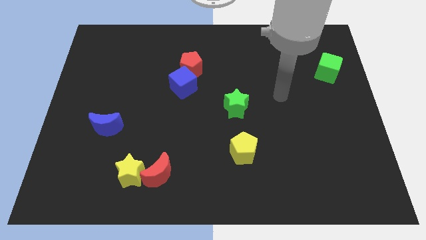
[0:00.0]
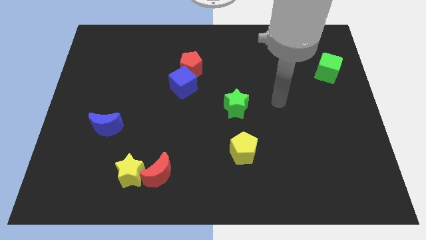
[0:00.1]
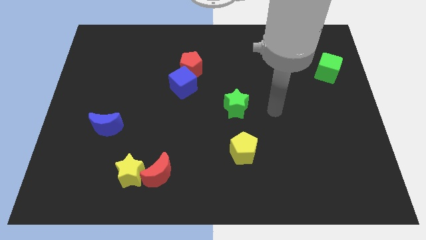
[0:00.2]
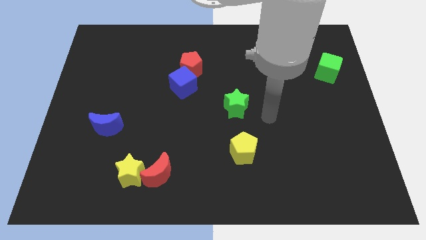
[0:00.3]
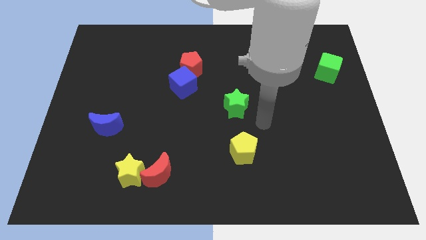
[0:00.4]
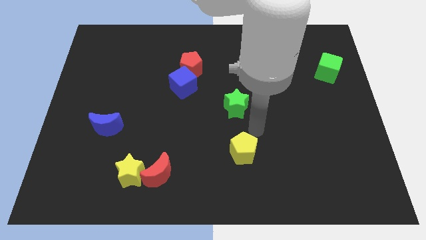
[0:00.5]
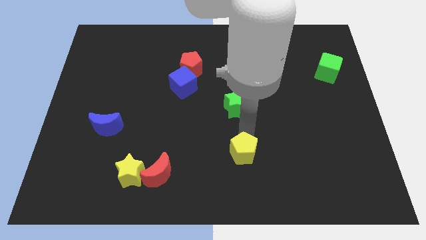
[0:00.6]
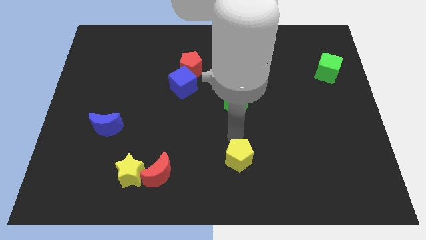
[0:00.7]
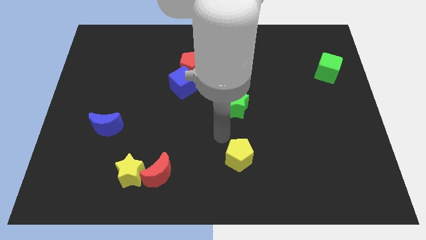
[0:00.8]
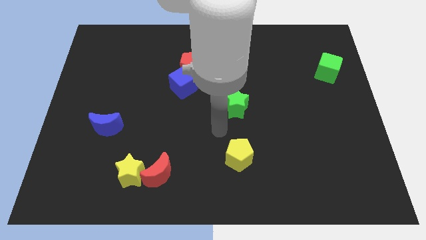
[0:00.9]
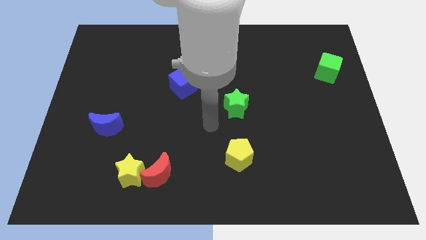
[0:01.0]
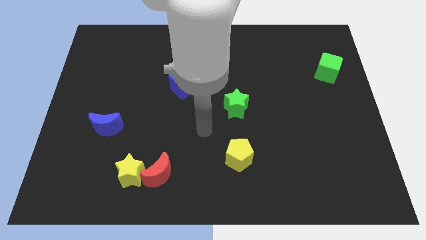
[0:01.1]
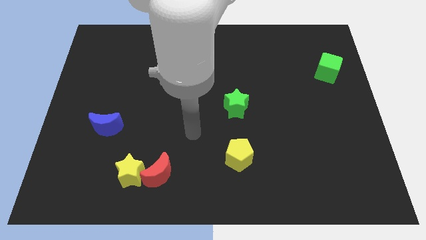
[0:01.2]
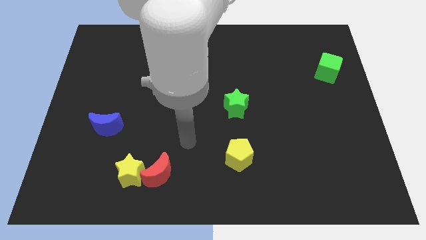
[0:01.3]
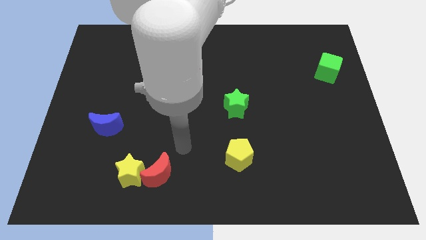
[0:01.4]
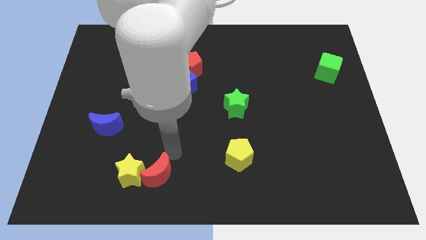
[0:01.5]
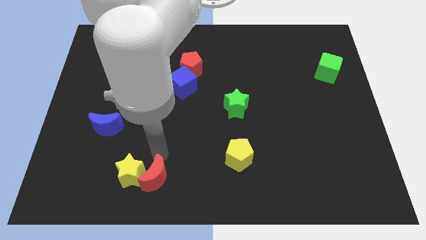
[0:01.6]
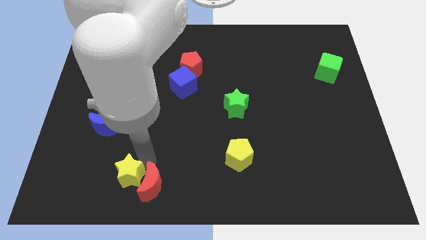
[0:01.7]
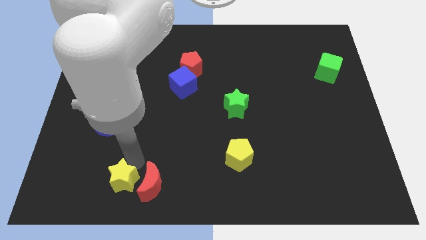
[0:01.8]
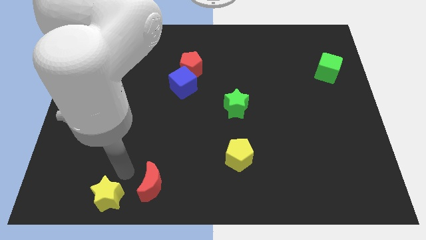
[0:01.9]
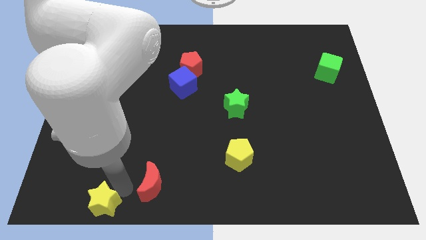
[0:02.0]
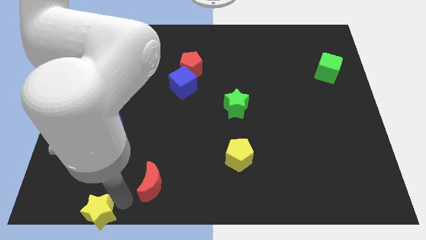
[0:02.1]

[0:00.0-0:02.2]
pull the red moon apart from the yellow star

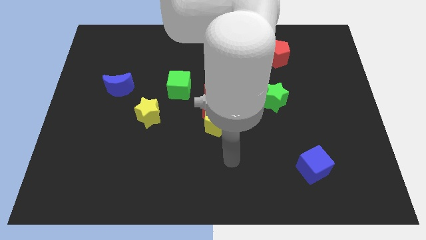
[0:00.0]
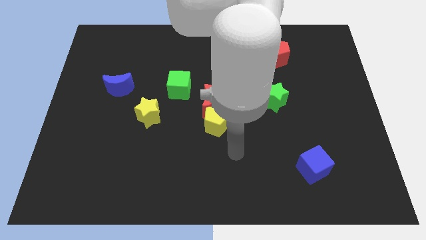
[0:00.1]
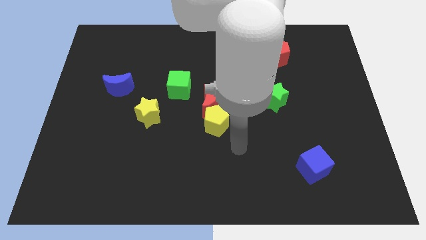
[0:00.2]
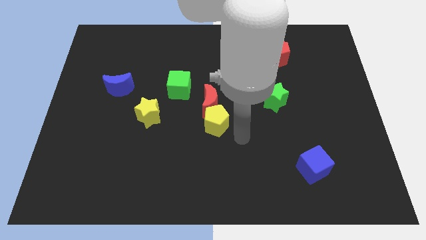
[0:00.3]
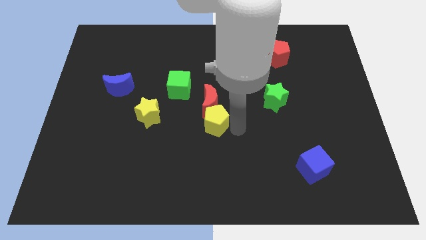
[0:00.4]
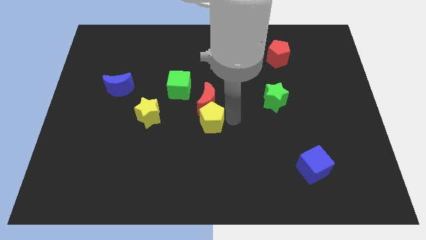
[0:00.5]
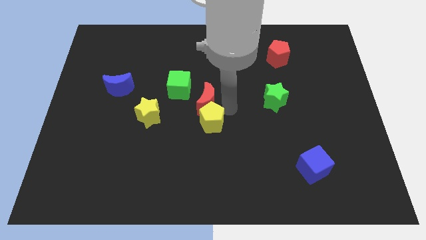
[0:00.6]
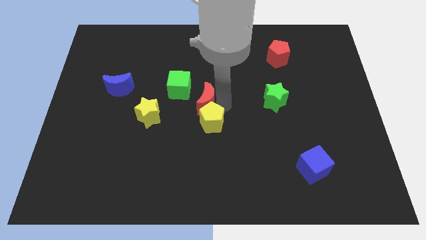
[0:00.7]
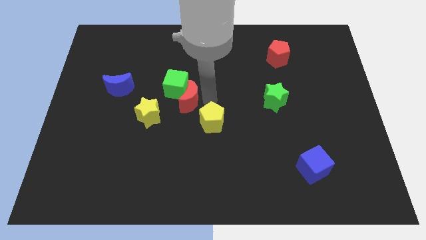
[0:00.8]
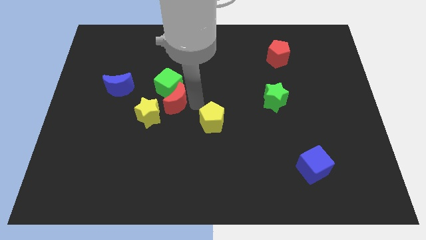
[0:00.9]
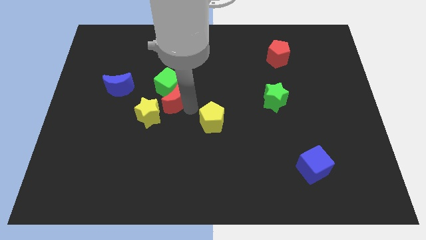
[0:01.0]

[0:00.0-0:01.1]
pull the yellow pentagon apart from the red moon

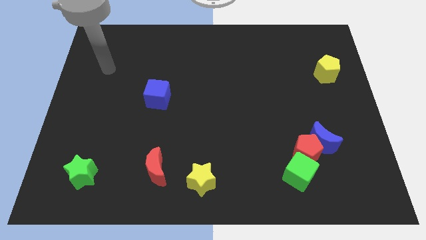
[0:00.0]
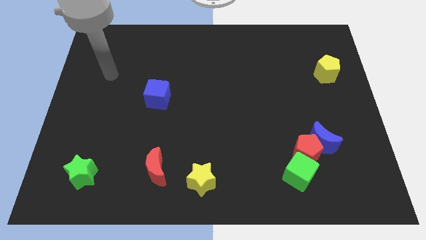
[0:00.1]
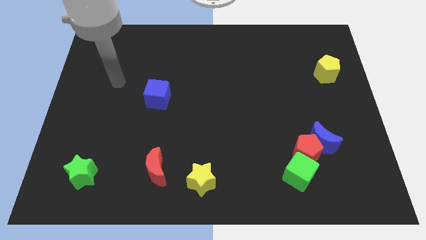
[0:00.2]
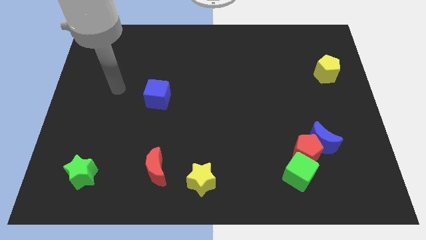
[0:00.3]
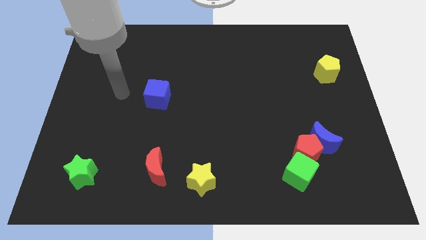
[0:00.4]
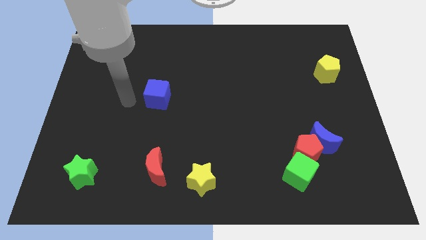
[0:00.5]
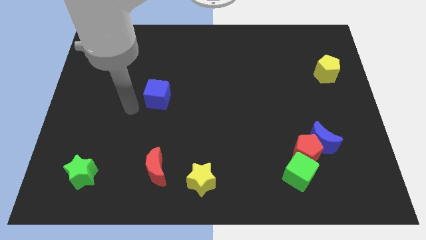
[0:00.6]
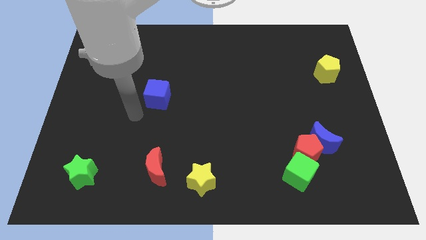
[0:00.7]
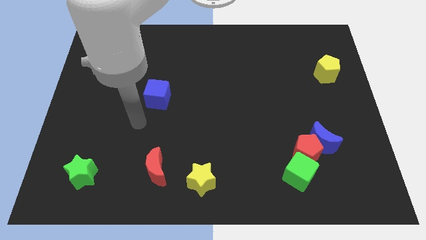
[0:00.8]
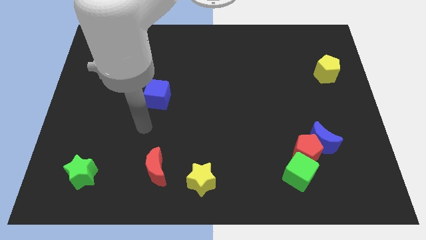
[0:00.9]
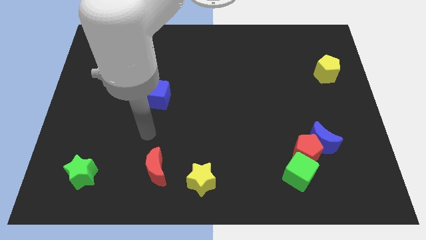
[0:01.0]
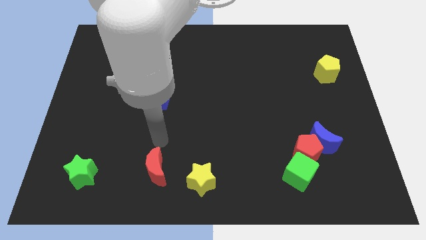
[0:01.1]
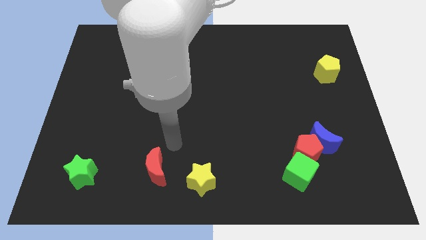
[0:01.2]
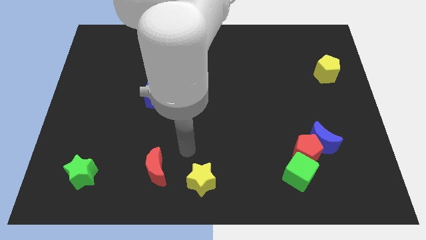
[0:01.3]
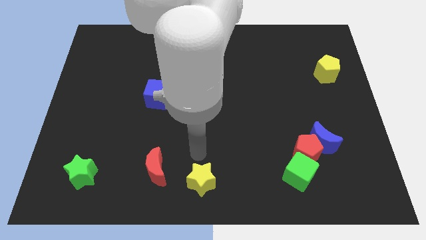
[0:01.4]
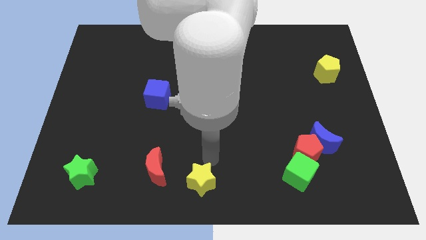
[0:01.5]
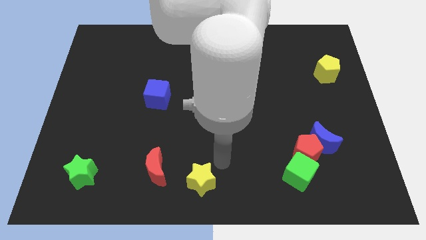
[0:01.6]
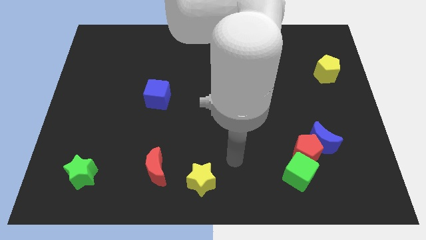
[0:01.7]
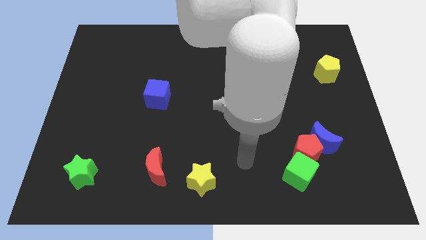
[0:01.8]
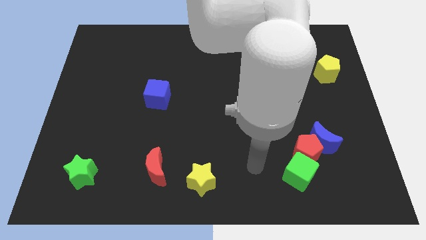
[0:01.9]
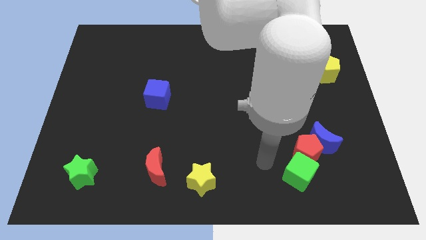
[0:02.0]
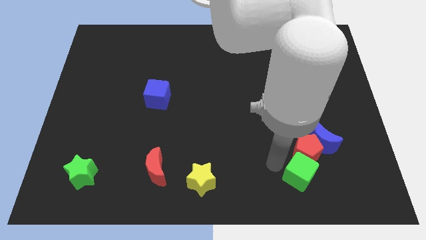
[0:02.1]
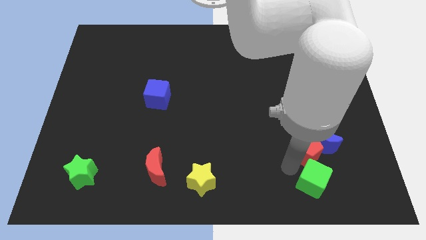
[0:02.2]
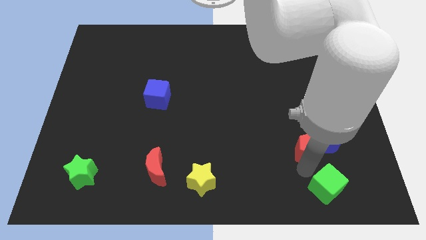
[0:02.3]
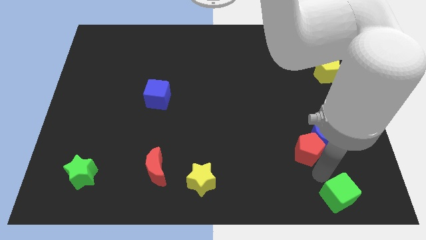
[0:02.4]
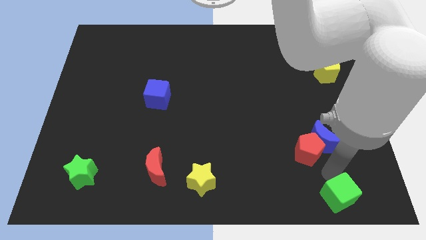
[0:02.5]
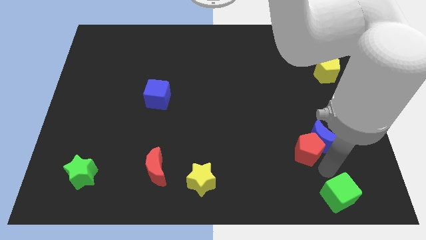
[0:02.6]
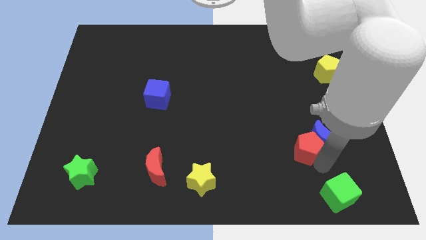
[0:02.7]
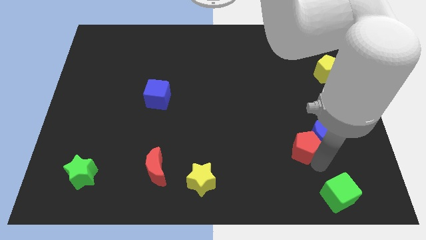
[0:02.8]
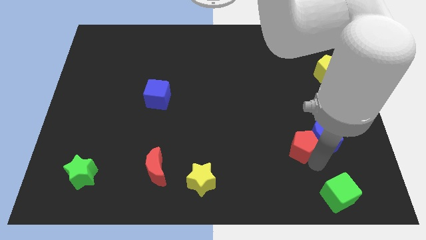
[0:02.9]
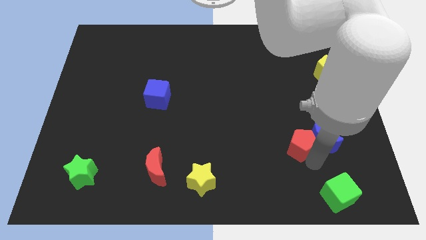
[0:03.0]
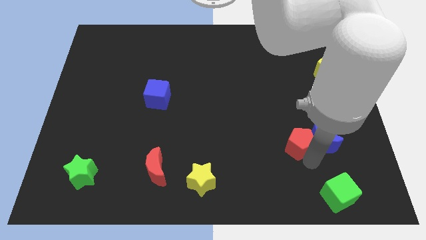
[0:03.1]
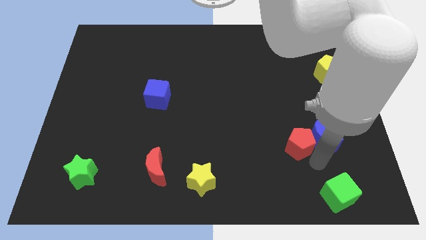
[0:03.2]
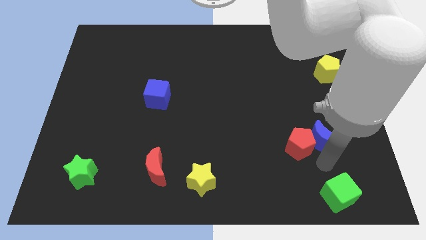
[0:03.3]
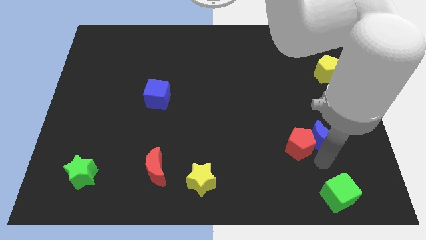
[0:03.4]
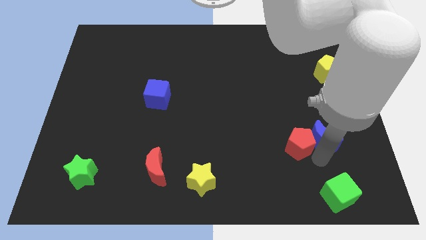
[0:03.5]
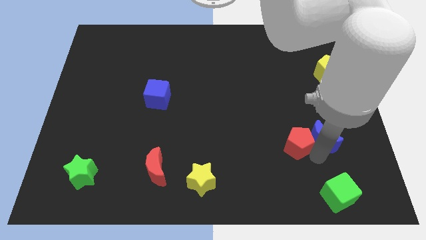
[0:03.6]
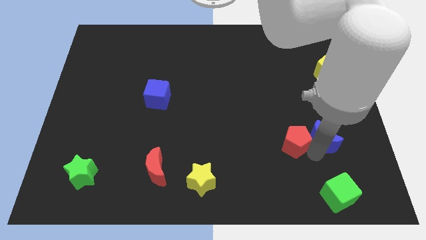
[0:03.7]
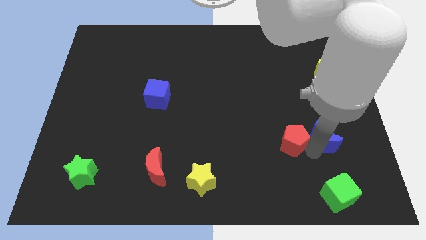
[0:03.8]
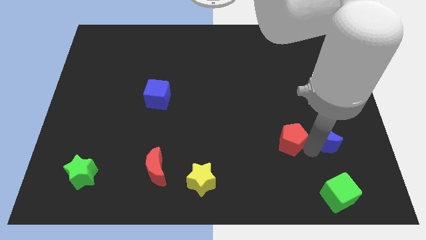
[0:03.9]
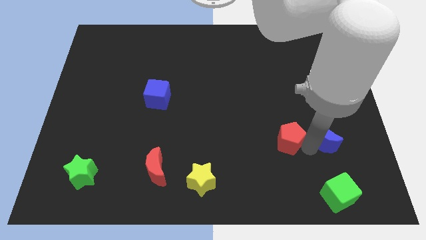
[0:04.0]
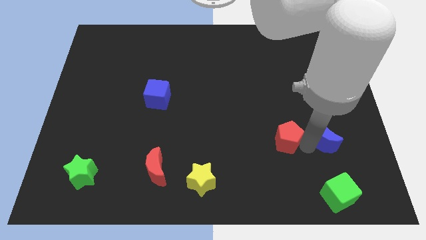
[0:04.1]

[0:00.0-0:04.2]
separate the red pentagon from the blue moon and green cube

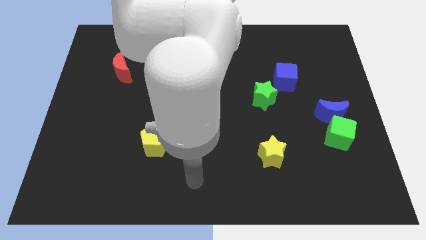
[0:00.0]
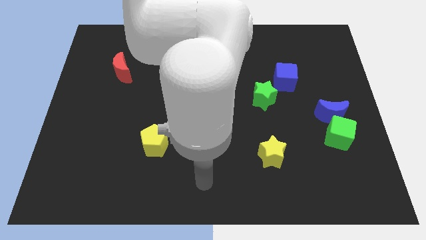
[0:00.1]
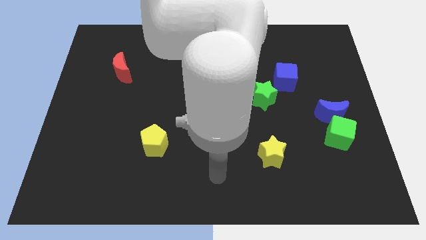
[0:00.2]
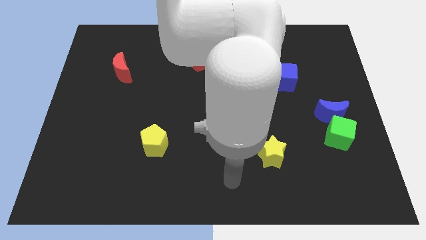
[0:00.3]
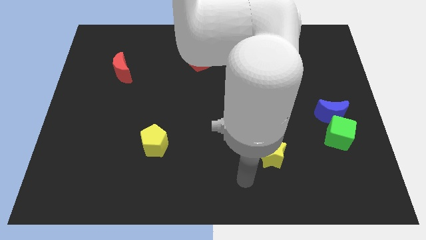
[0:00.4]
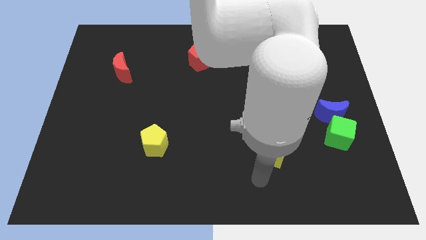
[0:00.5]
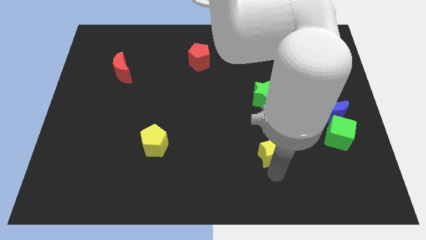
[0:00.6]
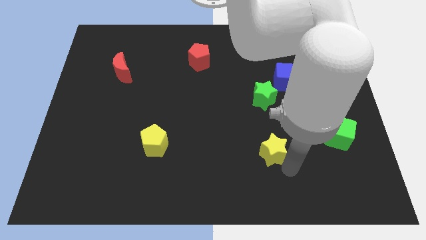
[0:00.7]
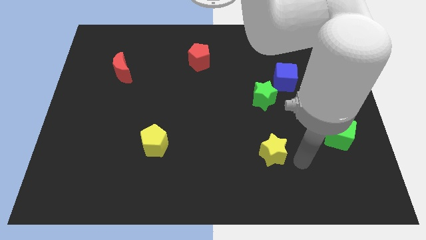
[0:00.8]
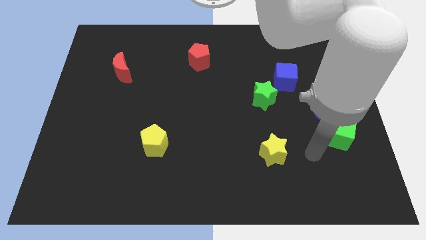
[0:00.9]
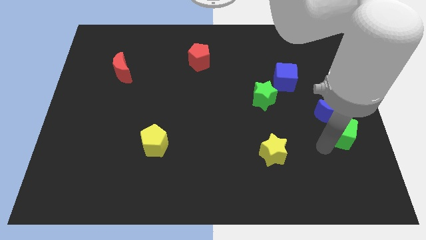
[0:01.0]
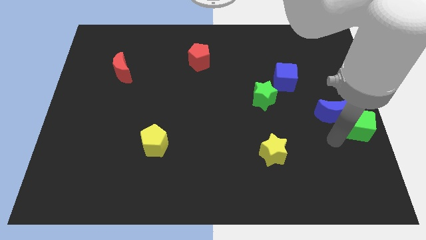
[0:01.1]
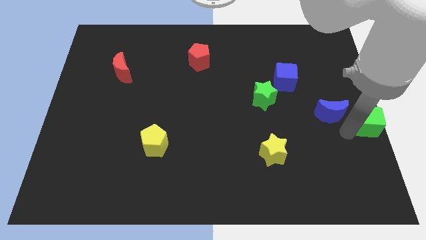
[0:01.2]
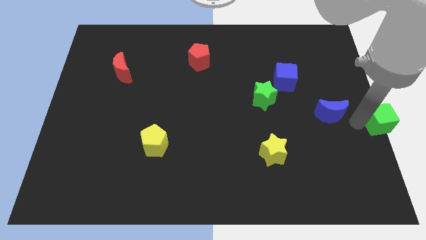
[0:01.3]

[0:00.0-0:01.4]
separate the blue moon from the green cube

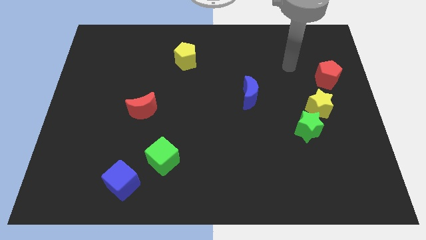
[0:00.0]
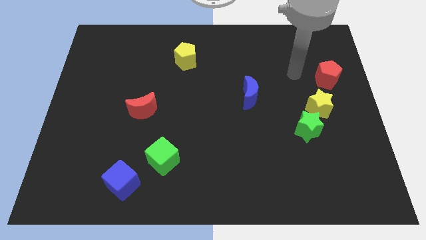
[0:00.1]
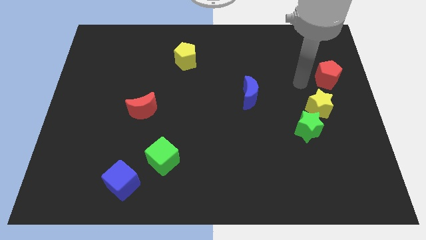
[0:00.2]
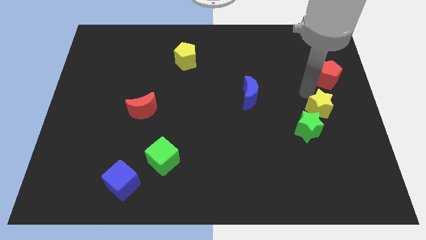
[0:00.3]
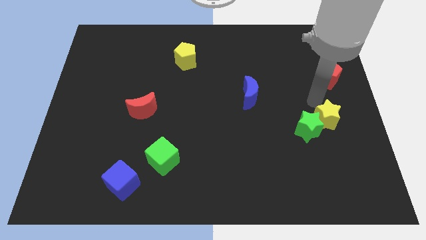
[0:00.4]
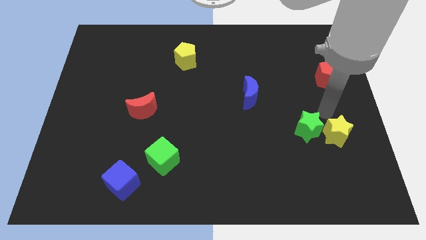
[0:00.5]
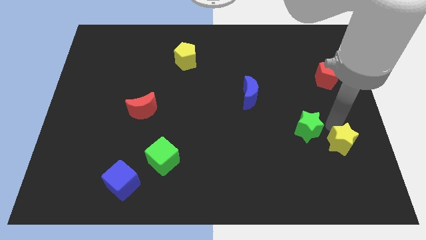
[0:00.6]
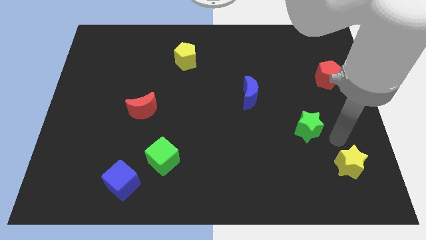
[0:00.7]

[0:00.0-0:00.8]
move the green star away from the yellow star
